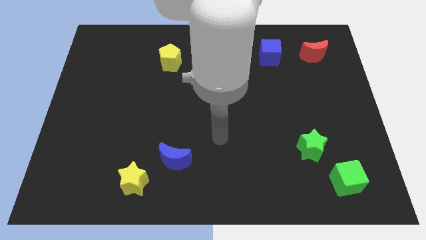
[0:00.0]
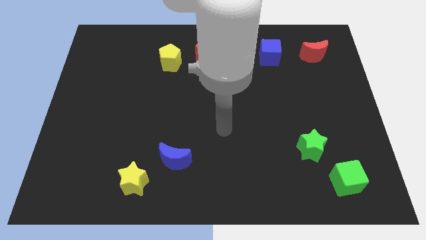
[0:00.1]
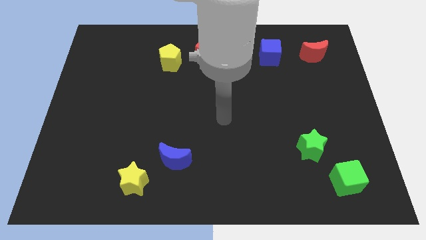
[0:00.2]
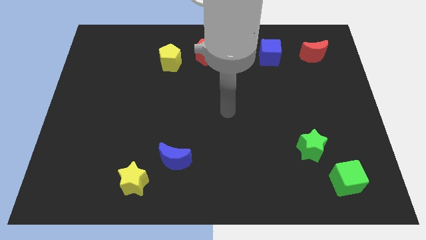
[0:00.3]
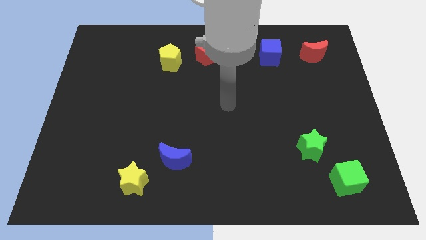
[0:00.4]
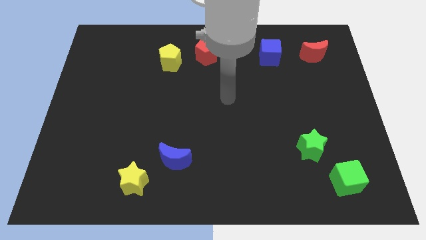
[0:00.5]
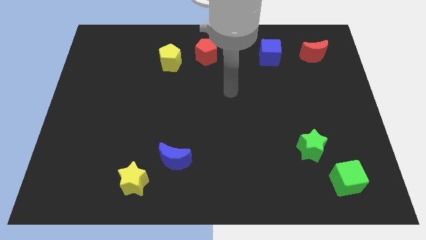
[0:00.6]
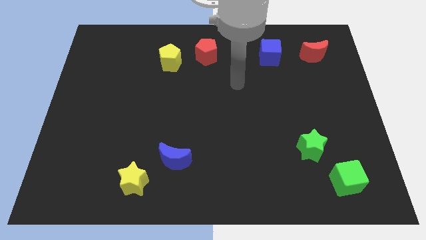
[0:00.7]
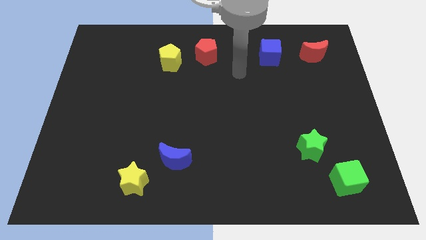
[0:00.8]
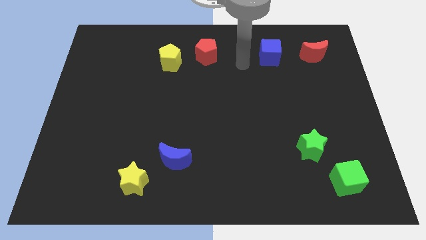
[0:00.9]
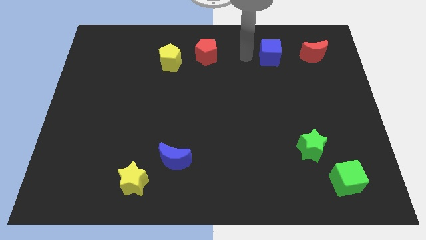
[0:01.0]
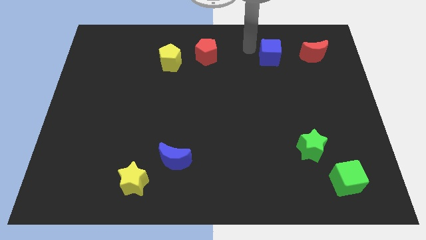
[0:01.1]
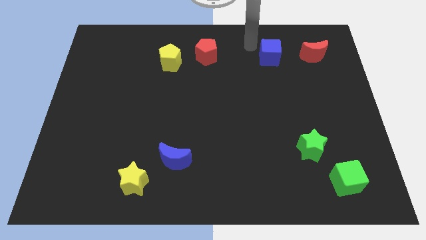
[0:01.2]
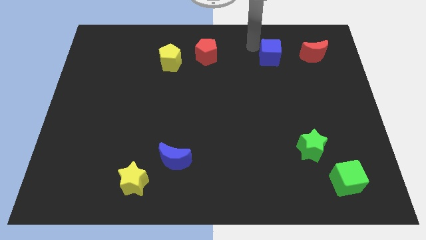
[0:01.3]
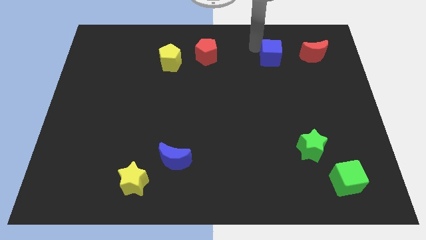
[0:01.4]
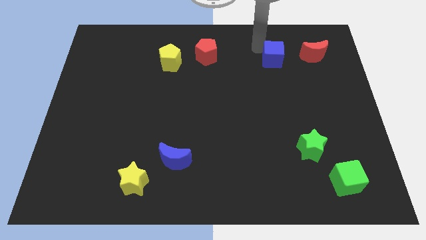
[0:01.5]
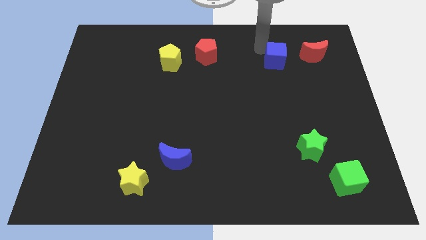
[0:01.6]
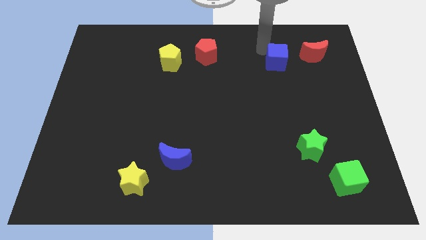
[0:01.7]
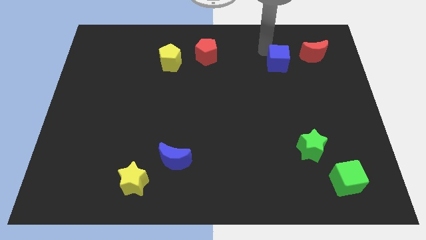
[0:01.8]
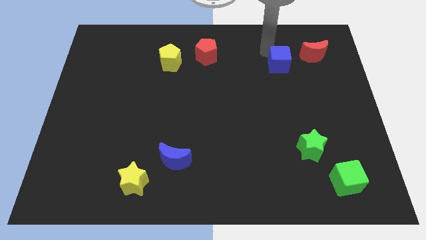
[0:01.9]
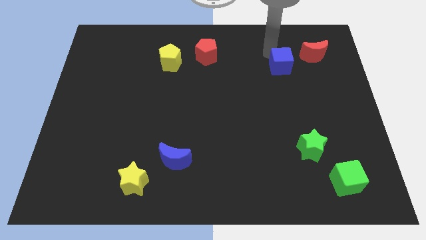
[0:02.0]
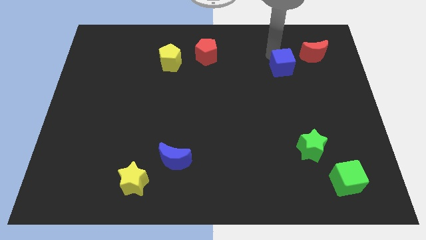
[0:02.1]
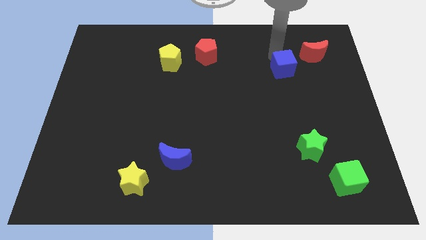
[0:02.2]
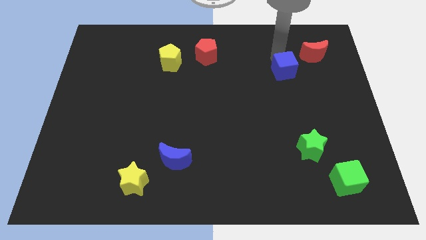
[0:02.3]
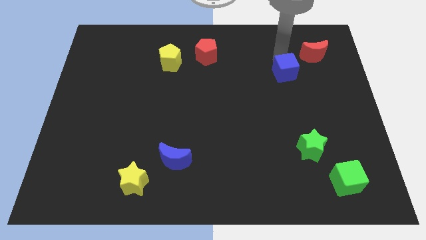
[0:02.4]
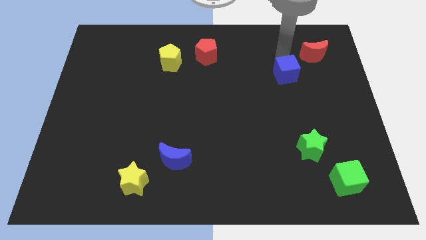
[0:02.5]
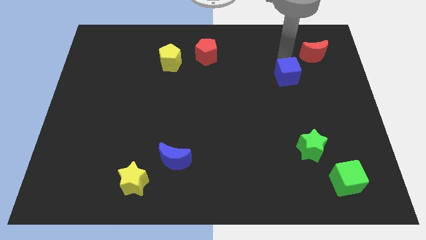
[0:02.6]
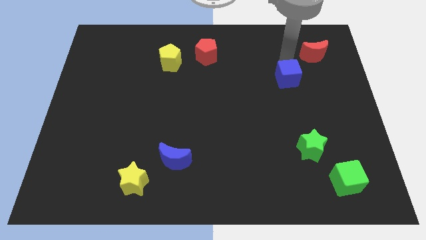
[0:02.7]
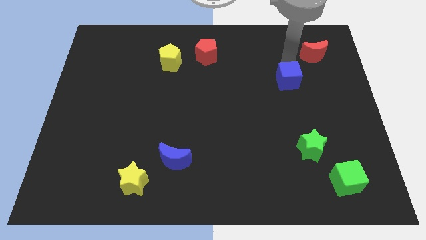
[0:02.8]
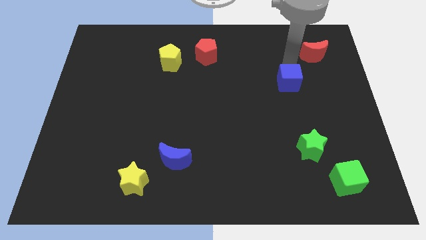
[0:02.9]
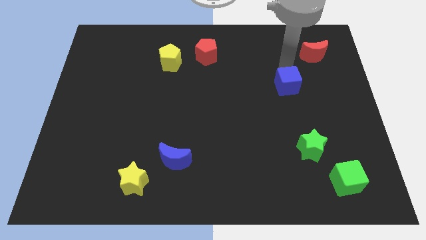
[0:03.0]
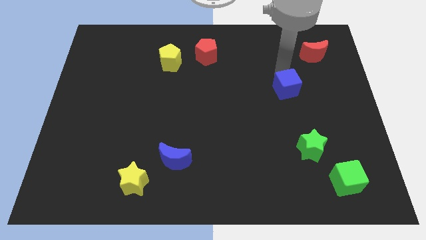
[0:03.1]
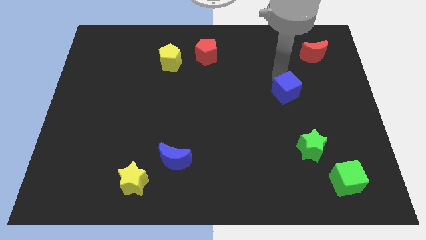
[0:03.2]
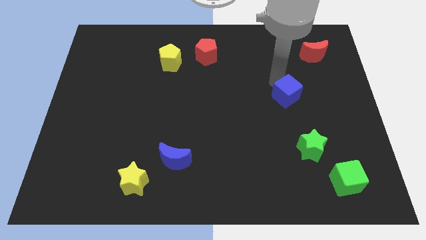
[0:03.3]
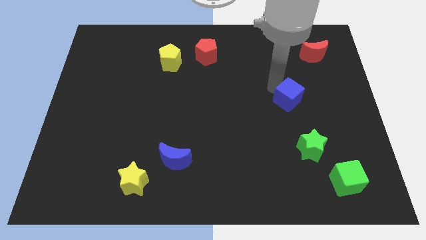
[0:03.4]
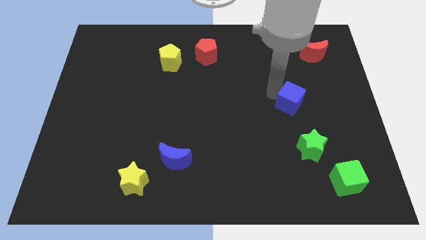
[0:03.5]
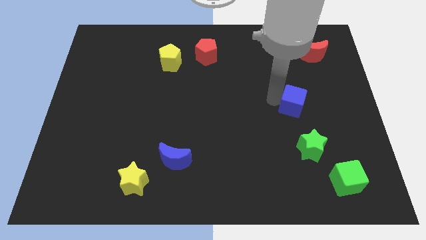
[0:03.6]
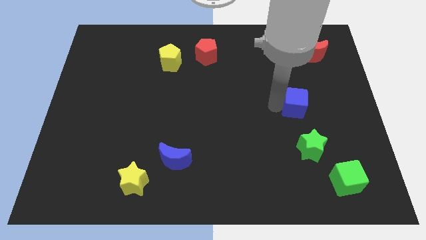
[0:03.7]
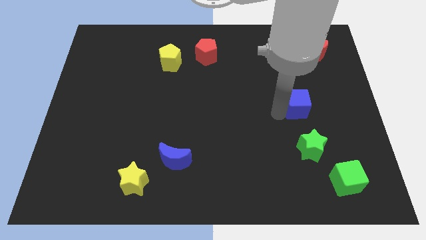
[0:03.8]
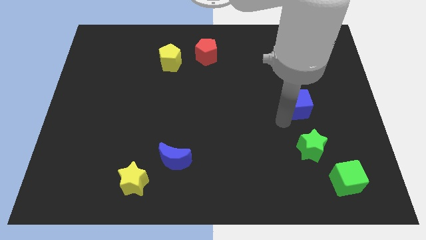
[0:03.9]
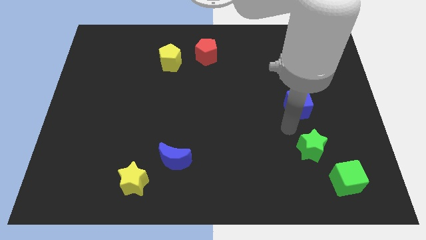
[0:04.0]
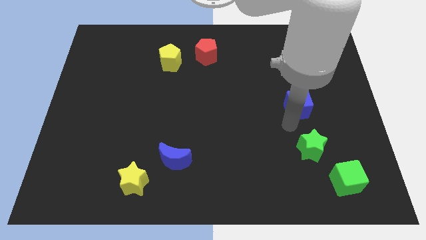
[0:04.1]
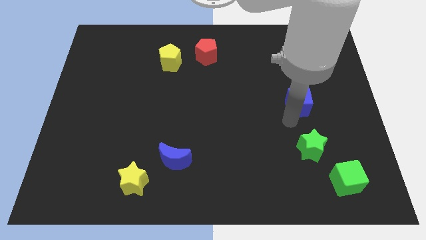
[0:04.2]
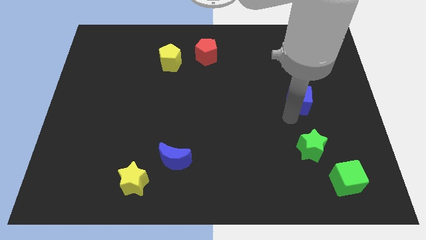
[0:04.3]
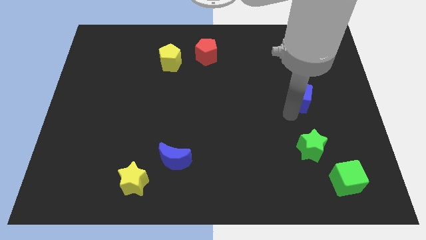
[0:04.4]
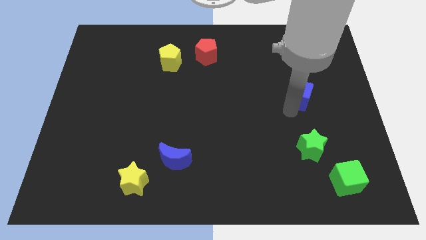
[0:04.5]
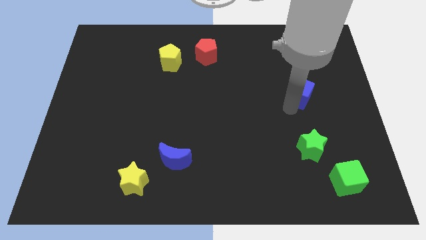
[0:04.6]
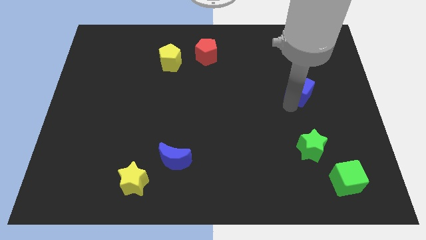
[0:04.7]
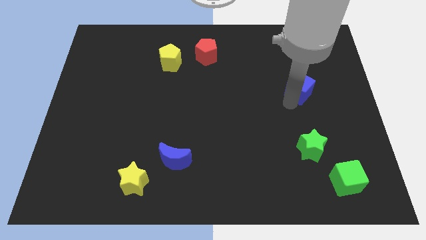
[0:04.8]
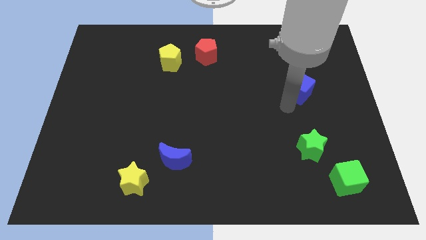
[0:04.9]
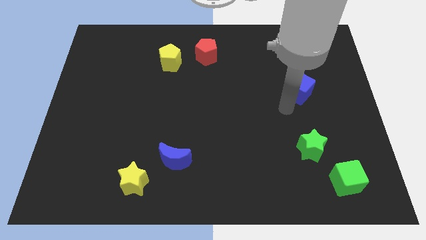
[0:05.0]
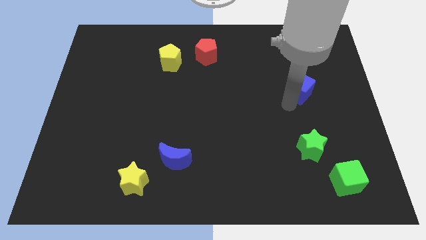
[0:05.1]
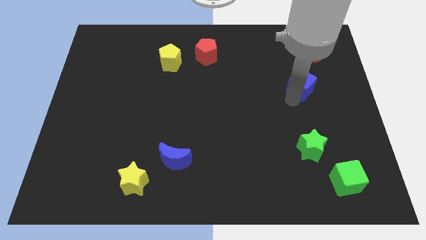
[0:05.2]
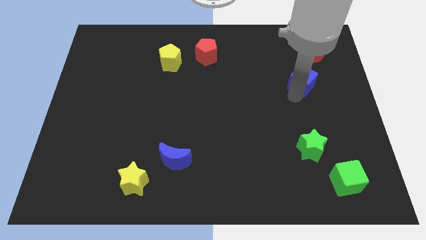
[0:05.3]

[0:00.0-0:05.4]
move the blue cube to the bottom side of the red moon

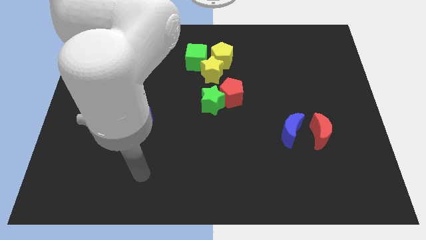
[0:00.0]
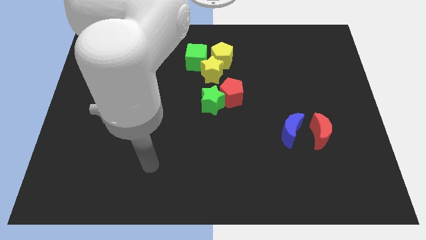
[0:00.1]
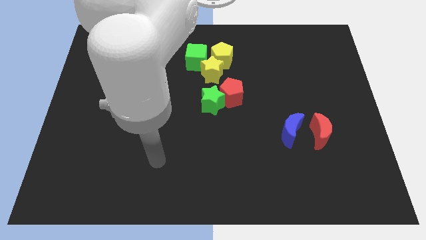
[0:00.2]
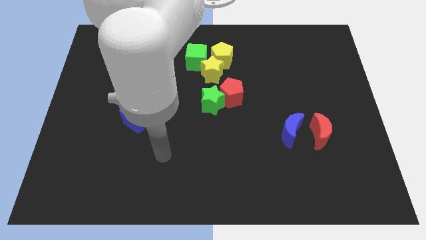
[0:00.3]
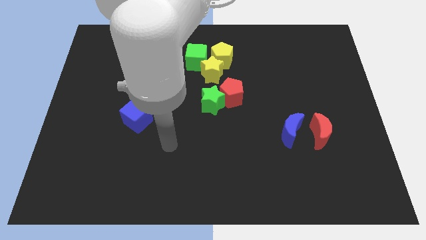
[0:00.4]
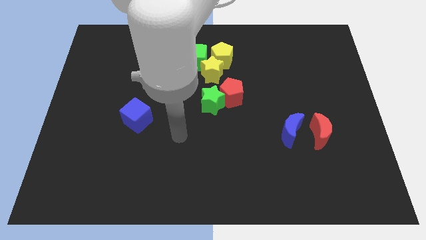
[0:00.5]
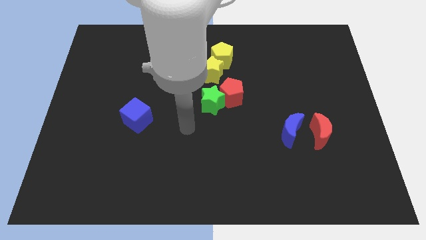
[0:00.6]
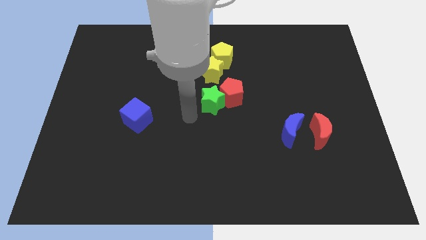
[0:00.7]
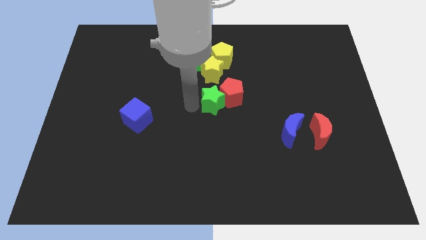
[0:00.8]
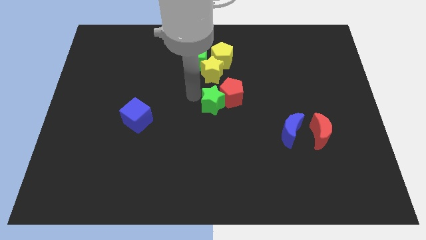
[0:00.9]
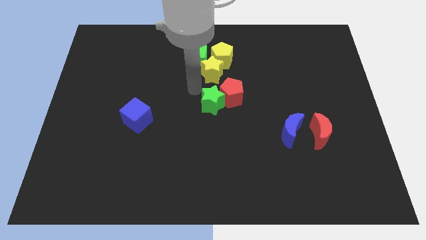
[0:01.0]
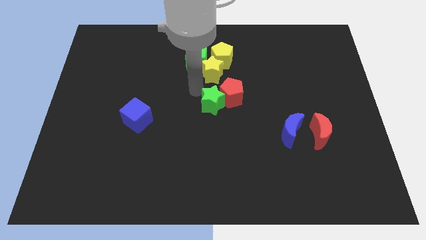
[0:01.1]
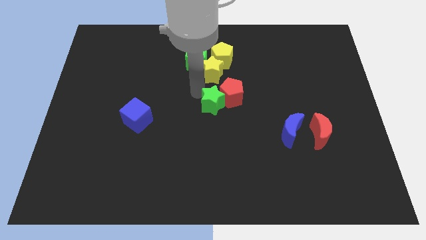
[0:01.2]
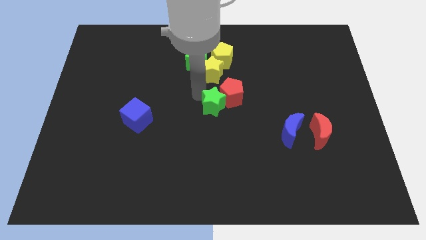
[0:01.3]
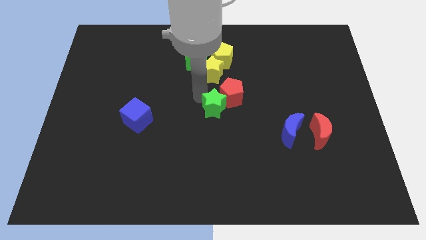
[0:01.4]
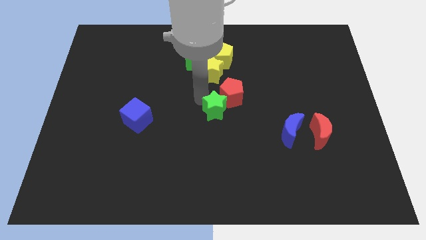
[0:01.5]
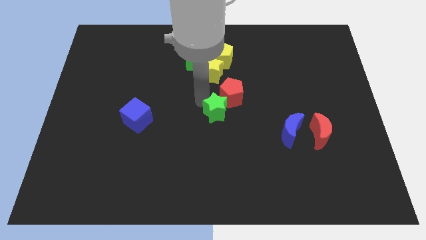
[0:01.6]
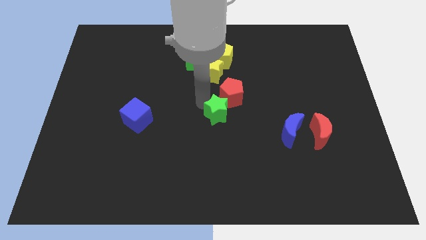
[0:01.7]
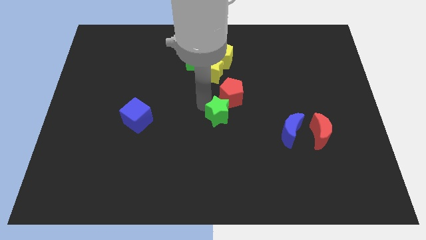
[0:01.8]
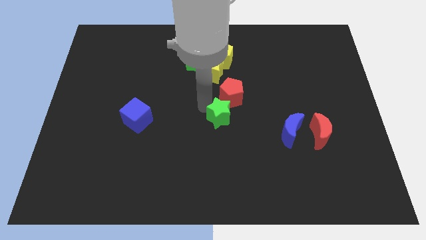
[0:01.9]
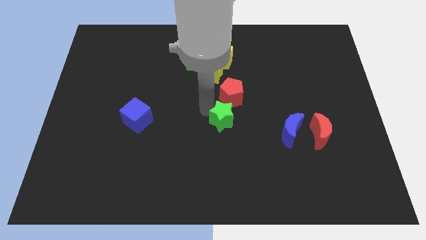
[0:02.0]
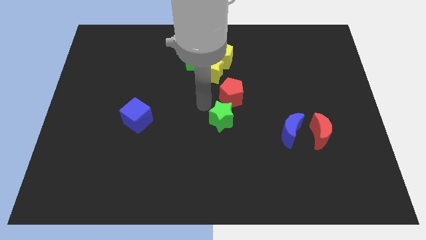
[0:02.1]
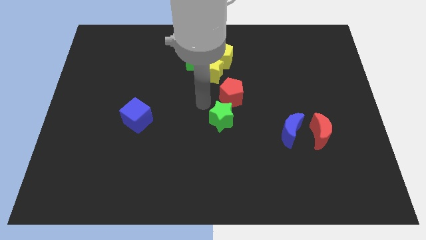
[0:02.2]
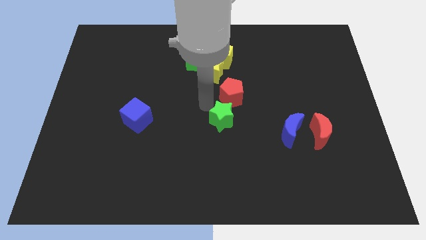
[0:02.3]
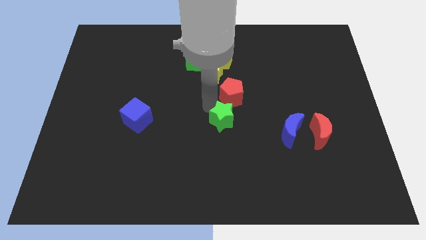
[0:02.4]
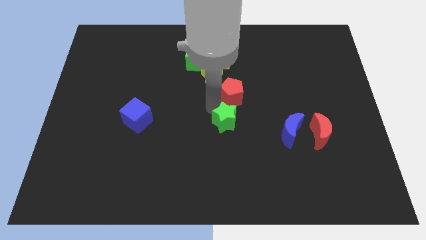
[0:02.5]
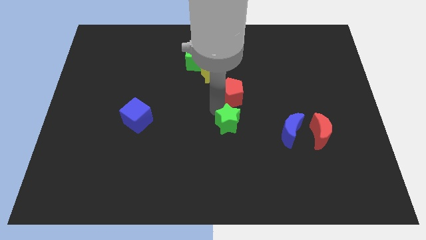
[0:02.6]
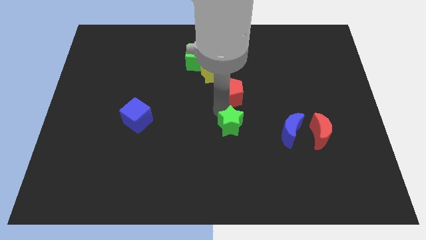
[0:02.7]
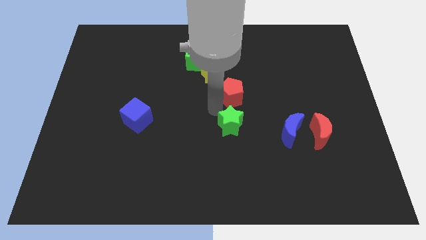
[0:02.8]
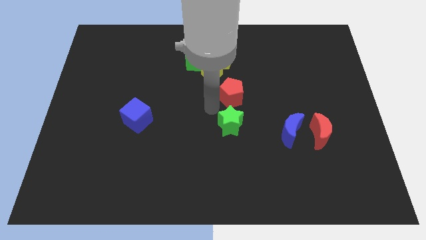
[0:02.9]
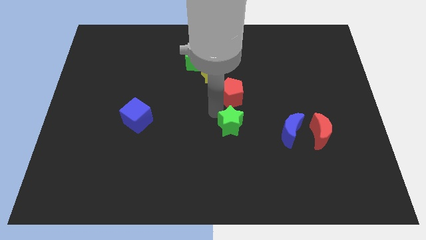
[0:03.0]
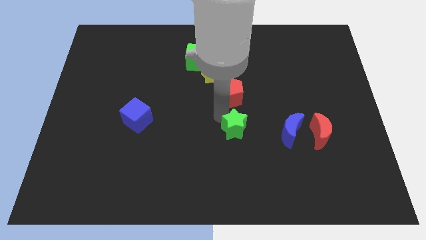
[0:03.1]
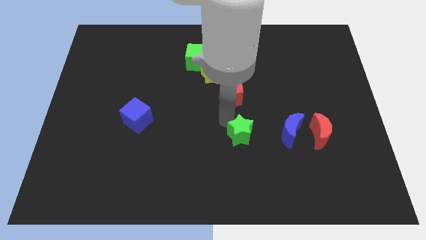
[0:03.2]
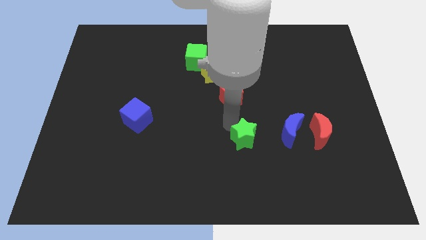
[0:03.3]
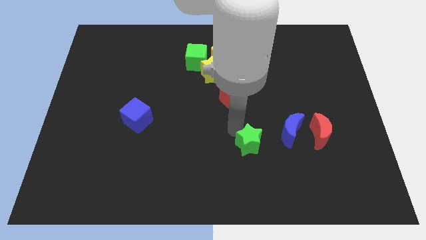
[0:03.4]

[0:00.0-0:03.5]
slide the green star to the bottom left of the blue moon
